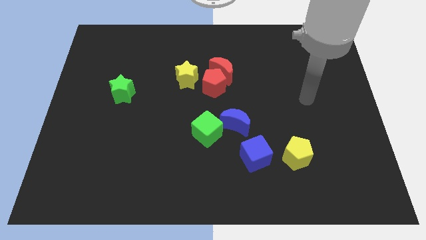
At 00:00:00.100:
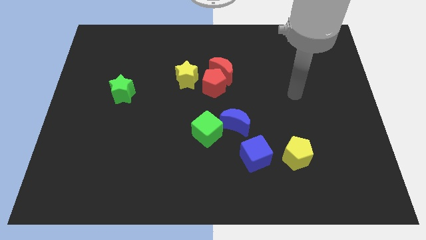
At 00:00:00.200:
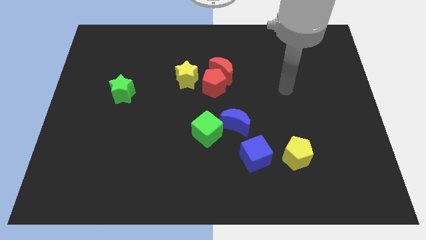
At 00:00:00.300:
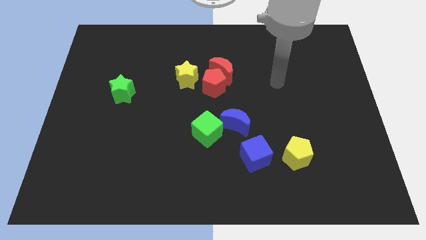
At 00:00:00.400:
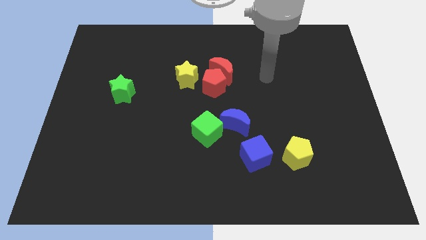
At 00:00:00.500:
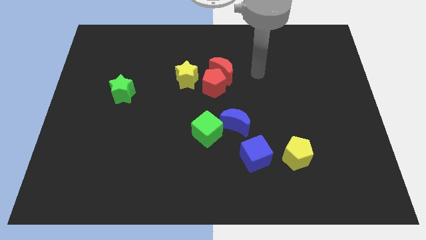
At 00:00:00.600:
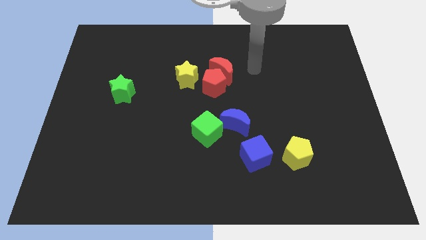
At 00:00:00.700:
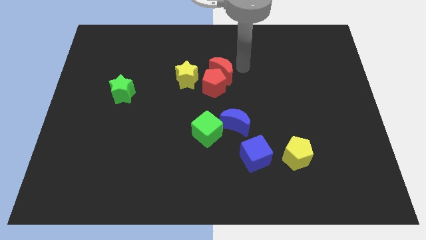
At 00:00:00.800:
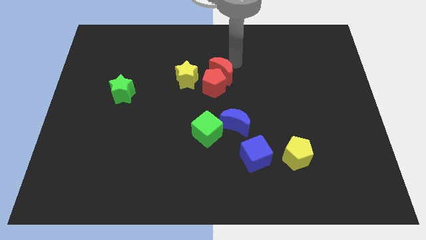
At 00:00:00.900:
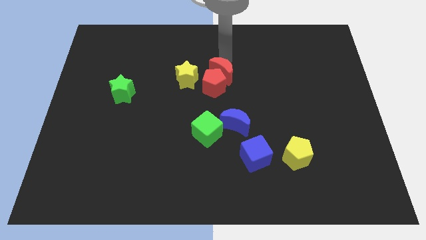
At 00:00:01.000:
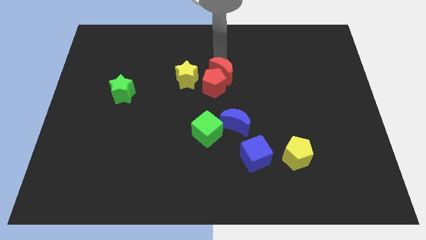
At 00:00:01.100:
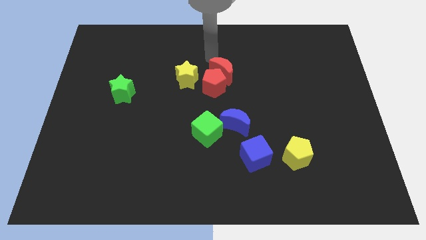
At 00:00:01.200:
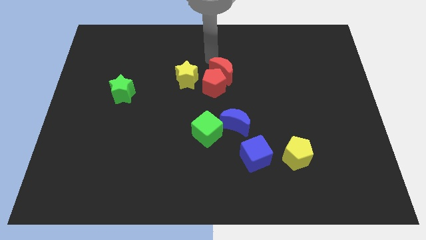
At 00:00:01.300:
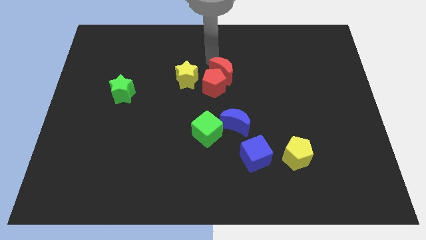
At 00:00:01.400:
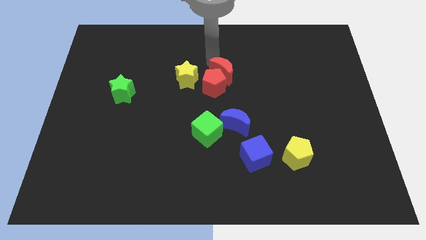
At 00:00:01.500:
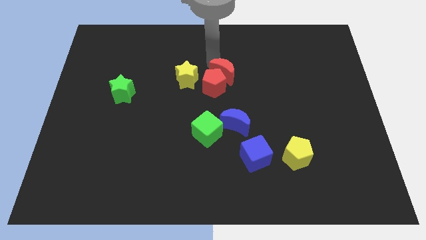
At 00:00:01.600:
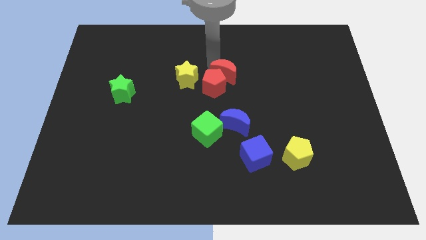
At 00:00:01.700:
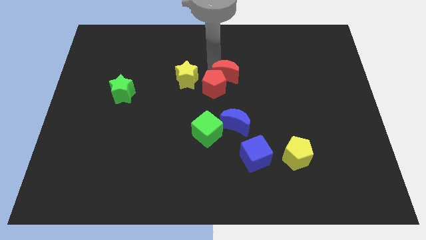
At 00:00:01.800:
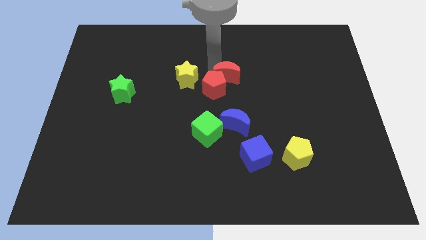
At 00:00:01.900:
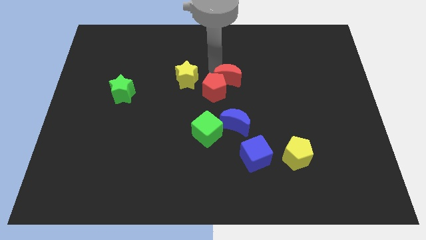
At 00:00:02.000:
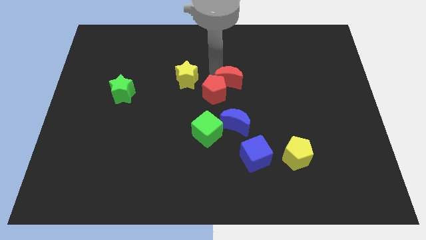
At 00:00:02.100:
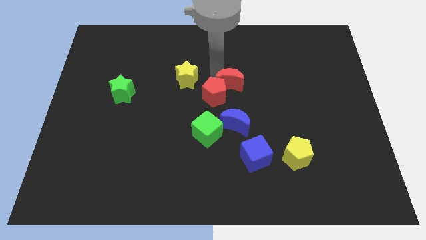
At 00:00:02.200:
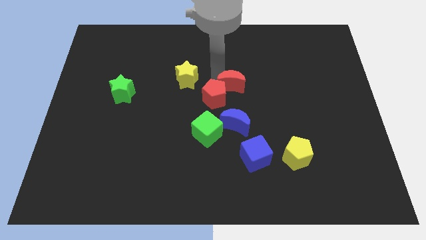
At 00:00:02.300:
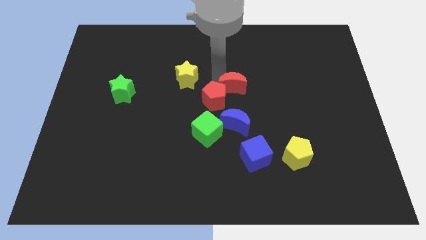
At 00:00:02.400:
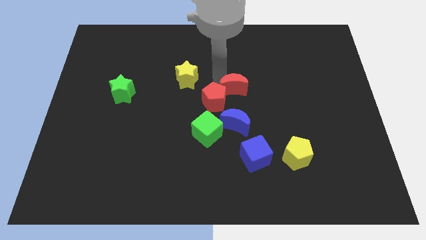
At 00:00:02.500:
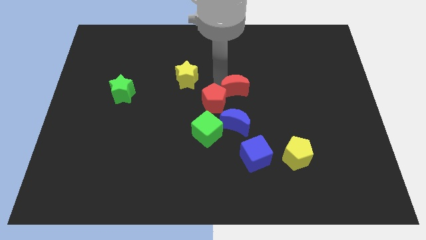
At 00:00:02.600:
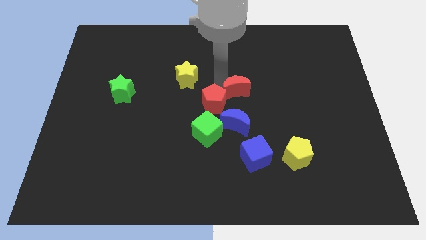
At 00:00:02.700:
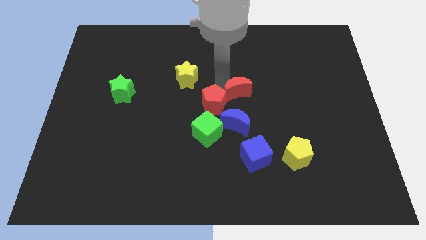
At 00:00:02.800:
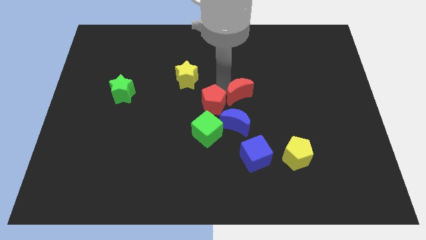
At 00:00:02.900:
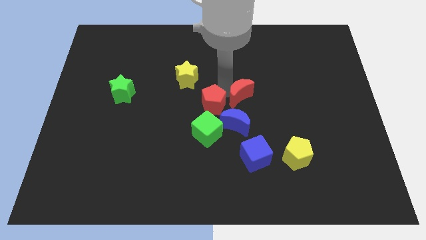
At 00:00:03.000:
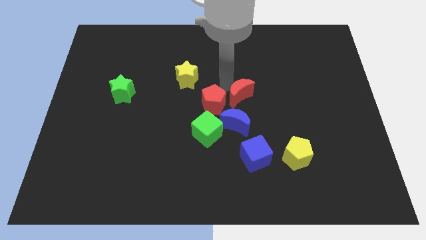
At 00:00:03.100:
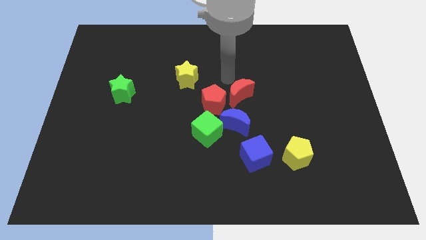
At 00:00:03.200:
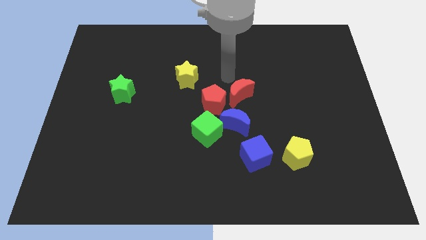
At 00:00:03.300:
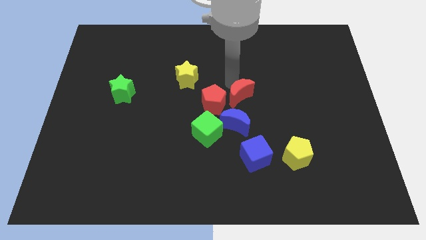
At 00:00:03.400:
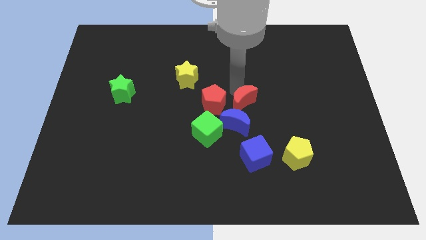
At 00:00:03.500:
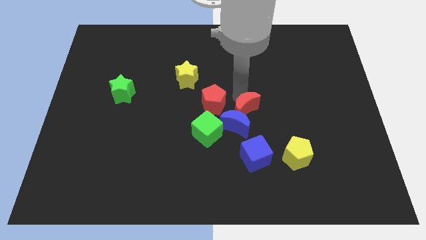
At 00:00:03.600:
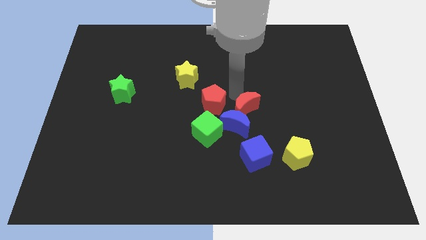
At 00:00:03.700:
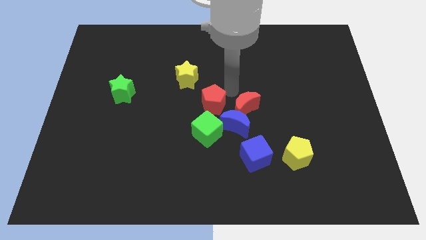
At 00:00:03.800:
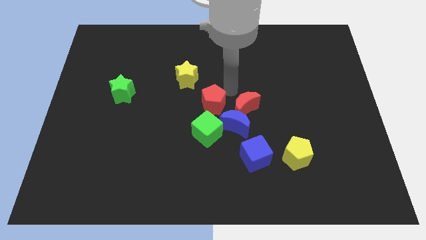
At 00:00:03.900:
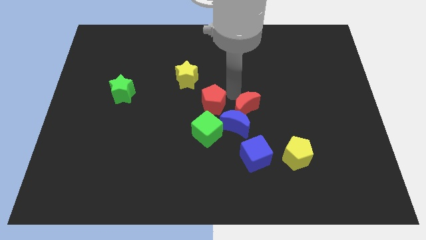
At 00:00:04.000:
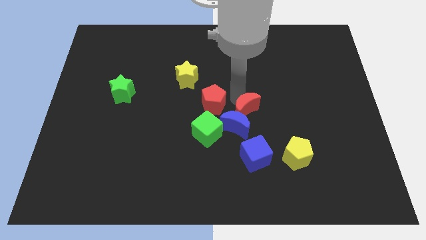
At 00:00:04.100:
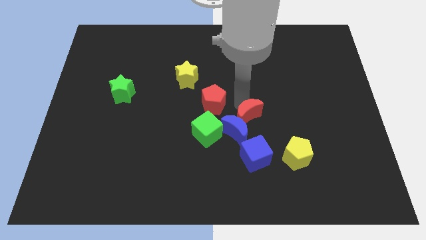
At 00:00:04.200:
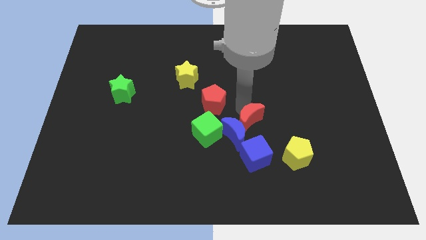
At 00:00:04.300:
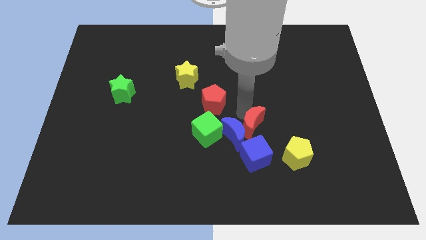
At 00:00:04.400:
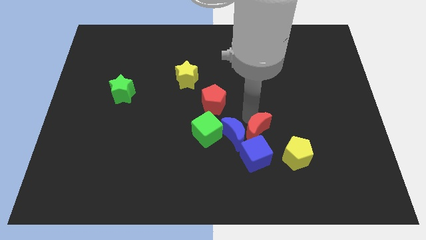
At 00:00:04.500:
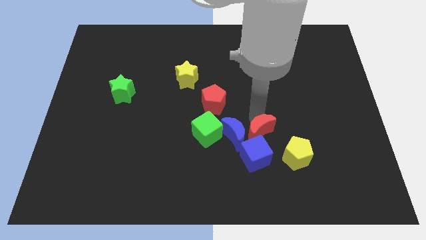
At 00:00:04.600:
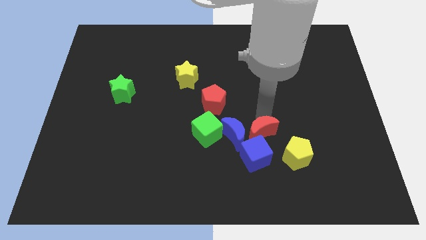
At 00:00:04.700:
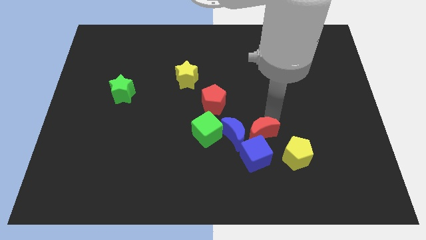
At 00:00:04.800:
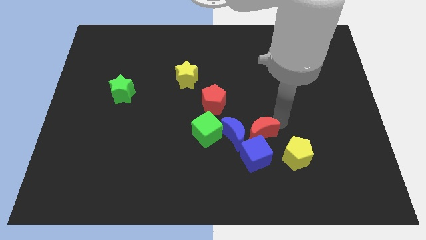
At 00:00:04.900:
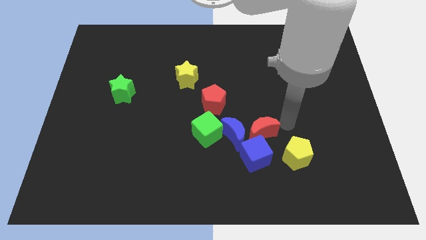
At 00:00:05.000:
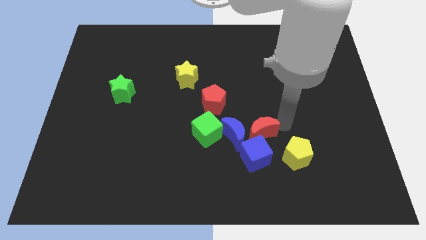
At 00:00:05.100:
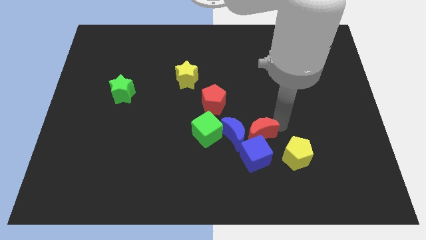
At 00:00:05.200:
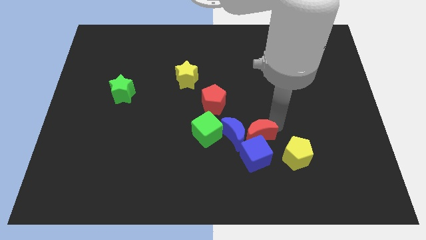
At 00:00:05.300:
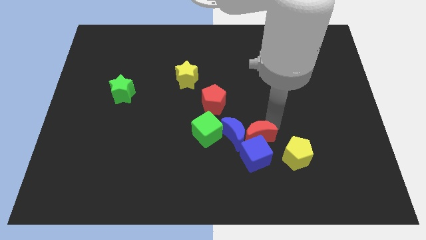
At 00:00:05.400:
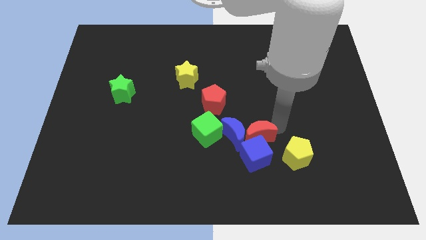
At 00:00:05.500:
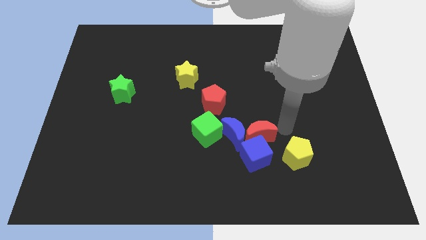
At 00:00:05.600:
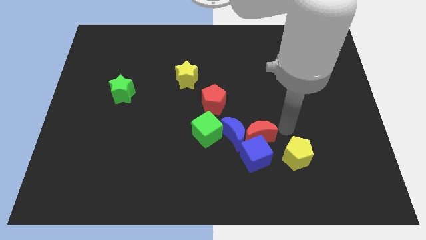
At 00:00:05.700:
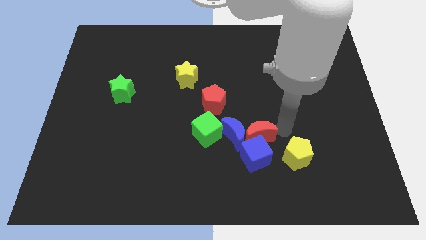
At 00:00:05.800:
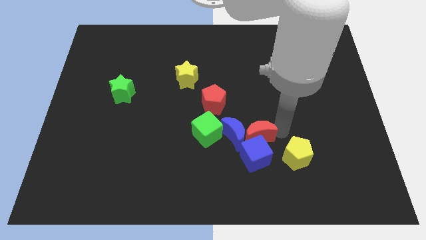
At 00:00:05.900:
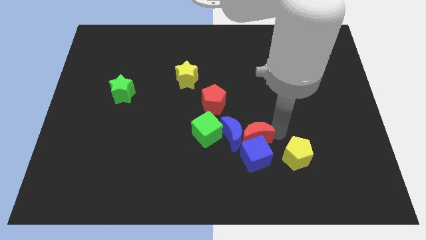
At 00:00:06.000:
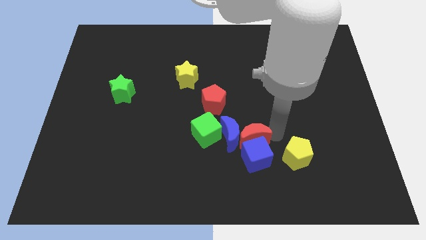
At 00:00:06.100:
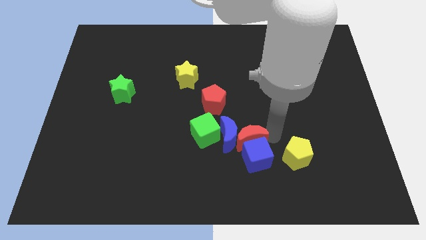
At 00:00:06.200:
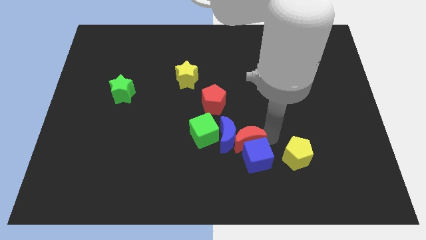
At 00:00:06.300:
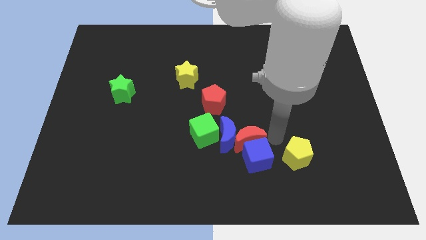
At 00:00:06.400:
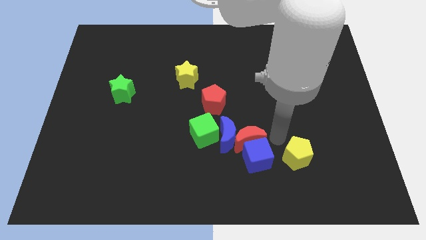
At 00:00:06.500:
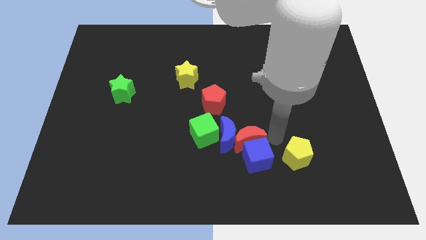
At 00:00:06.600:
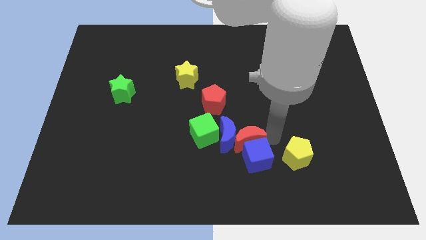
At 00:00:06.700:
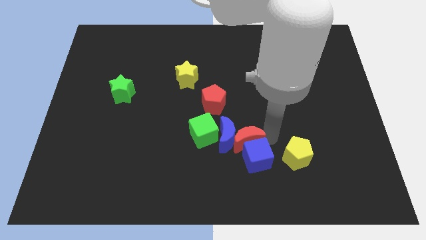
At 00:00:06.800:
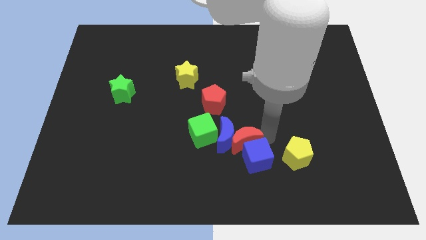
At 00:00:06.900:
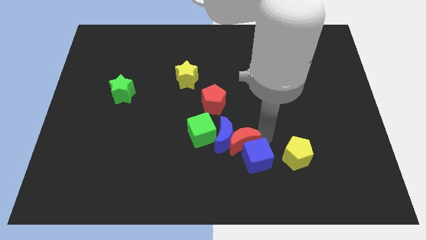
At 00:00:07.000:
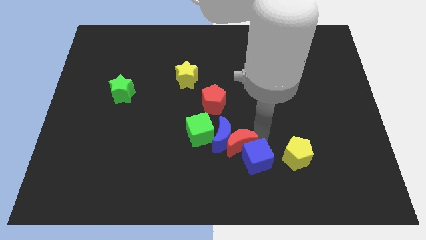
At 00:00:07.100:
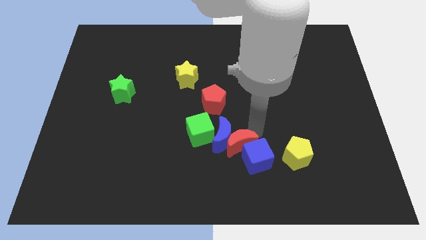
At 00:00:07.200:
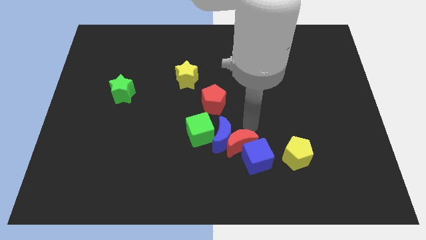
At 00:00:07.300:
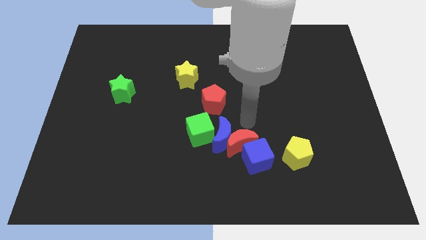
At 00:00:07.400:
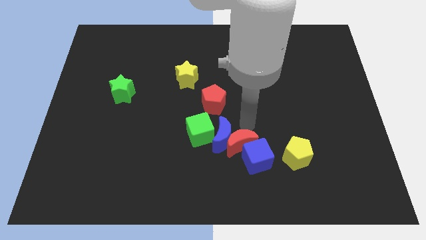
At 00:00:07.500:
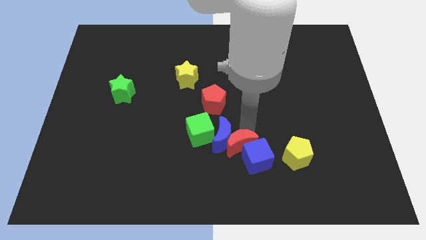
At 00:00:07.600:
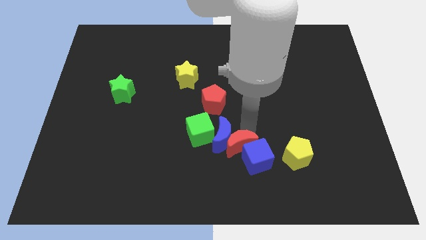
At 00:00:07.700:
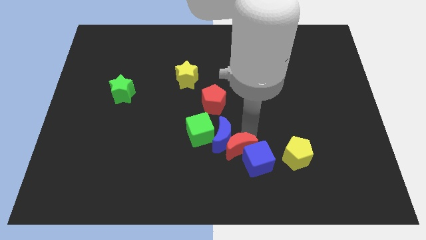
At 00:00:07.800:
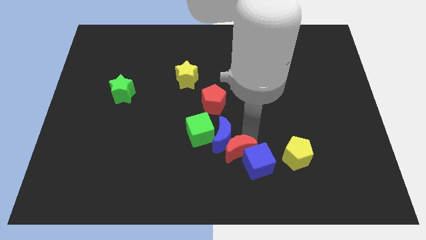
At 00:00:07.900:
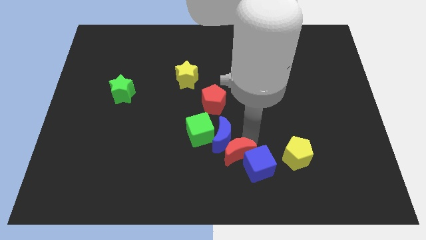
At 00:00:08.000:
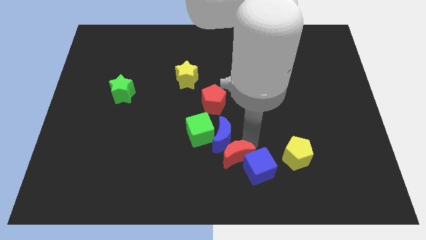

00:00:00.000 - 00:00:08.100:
slide the red moon to the bottom side
